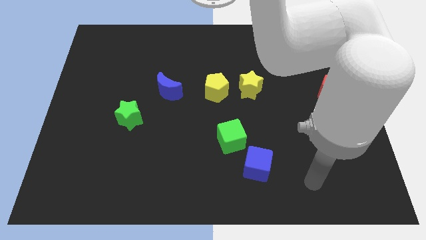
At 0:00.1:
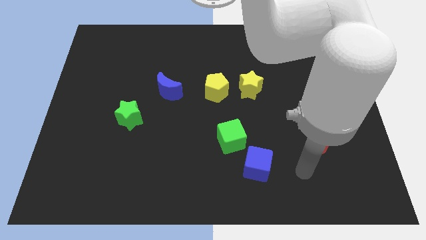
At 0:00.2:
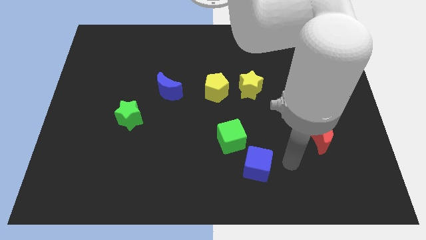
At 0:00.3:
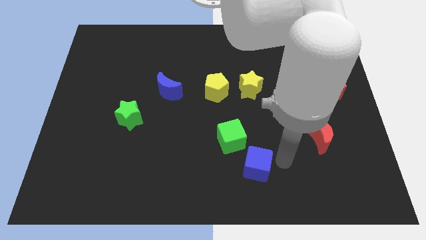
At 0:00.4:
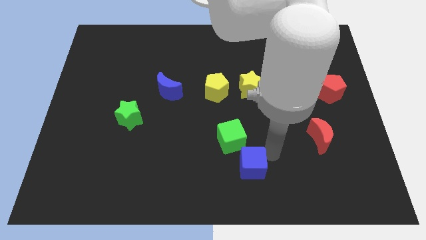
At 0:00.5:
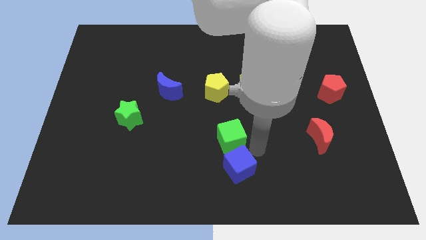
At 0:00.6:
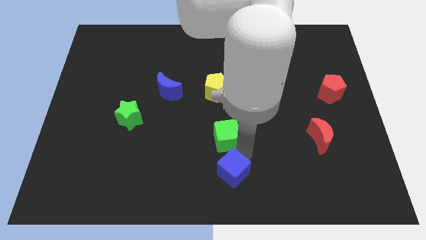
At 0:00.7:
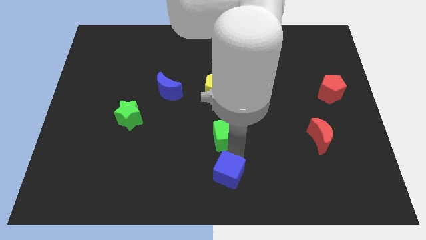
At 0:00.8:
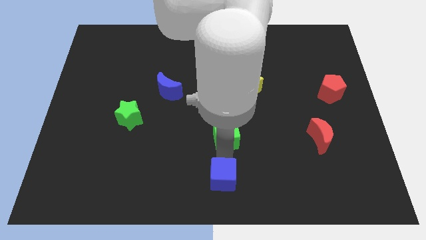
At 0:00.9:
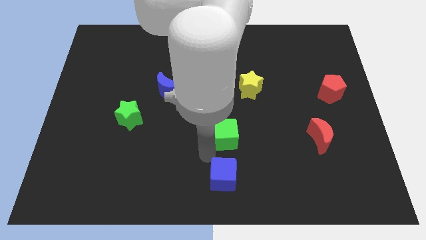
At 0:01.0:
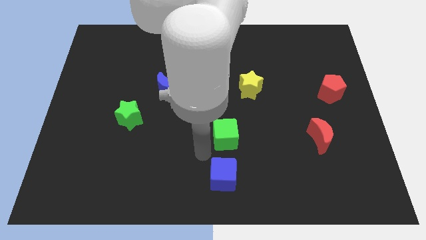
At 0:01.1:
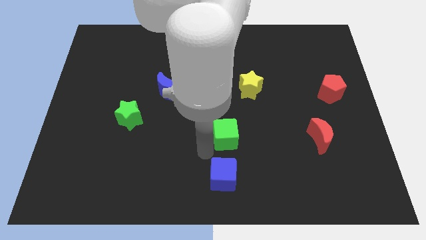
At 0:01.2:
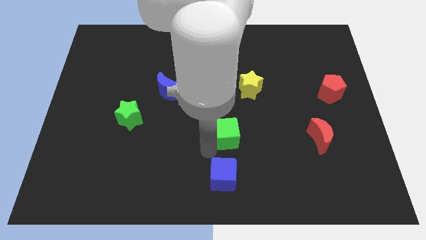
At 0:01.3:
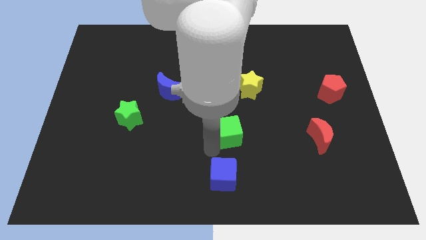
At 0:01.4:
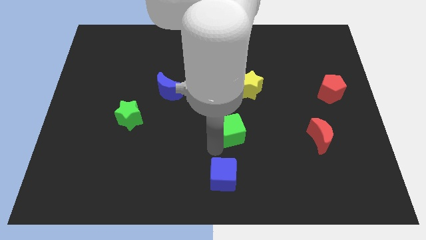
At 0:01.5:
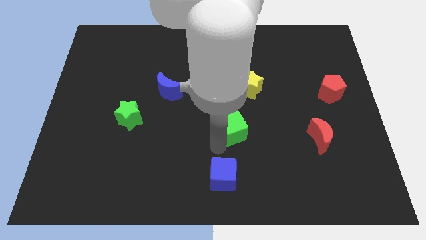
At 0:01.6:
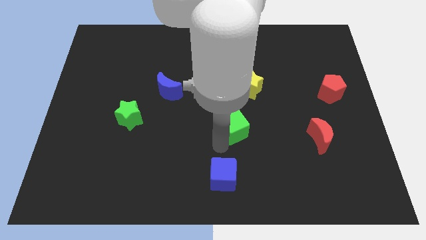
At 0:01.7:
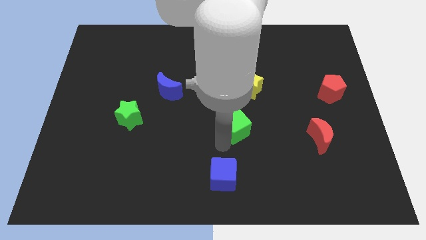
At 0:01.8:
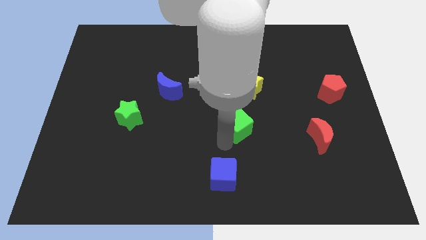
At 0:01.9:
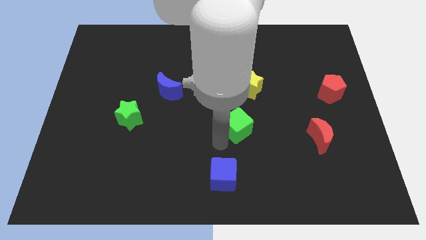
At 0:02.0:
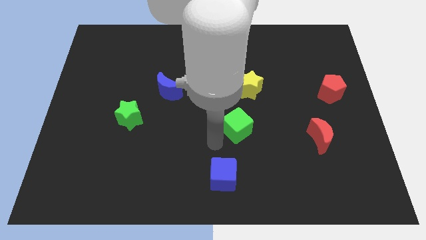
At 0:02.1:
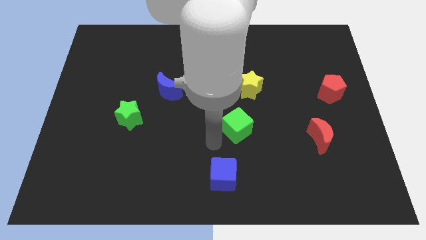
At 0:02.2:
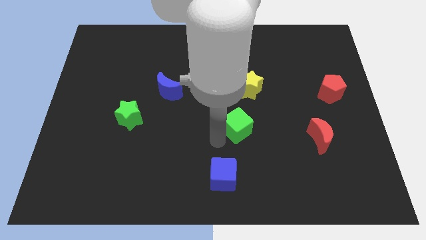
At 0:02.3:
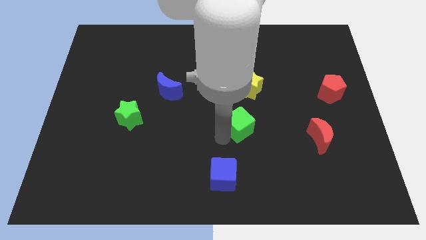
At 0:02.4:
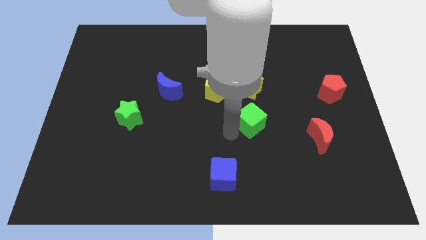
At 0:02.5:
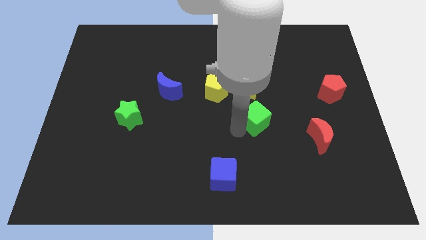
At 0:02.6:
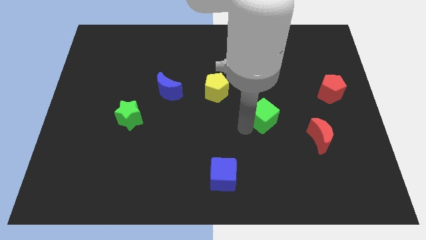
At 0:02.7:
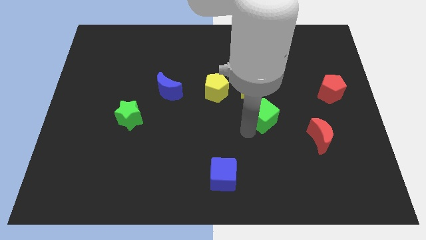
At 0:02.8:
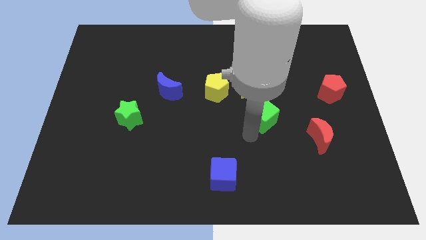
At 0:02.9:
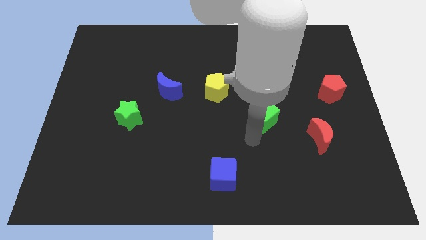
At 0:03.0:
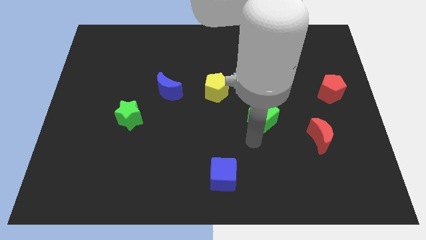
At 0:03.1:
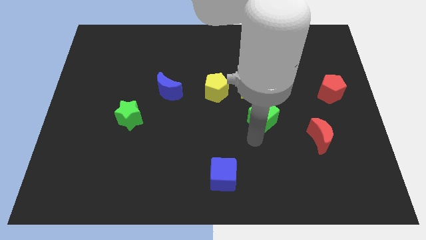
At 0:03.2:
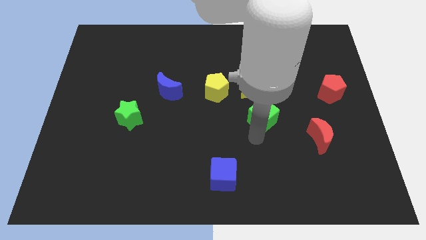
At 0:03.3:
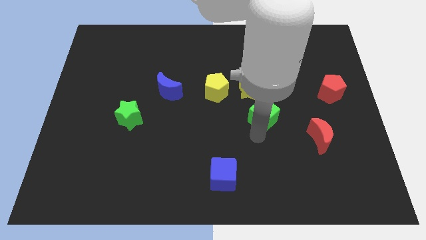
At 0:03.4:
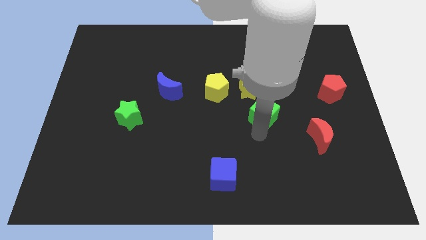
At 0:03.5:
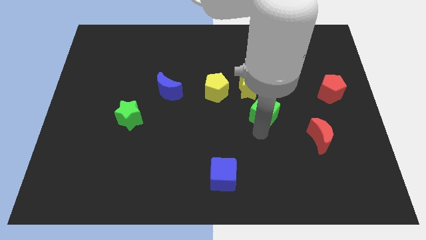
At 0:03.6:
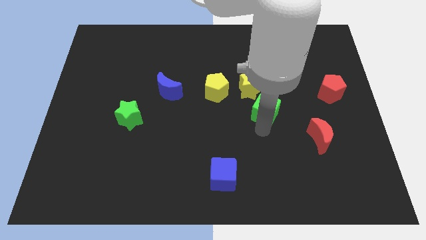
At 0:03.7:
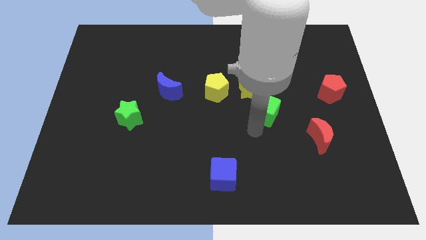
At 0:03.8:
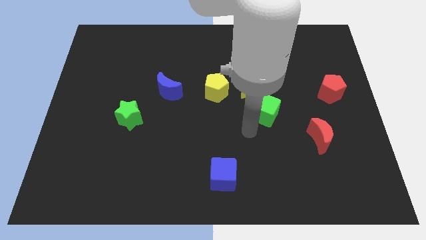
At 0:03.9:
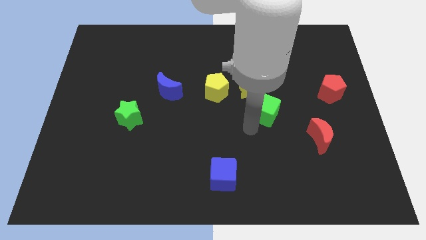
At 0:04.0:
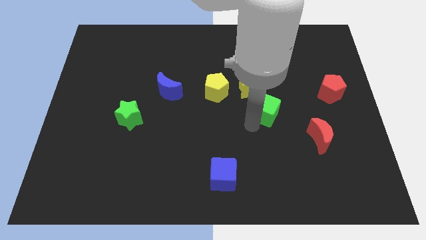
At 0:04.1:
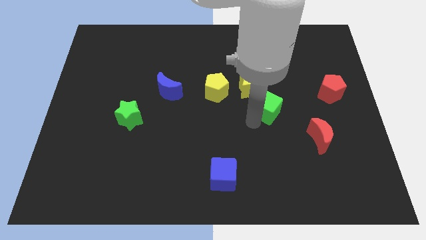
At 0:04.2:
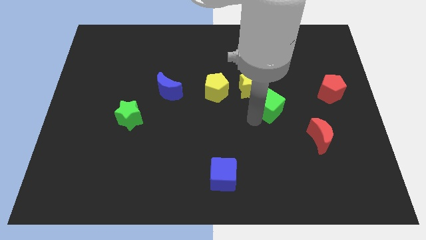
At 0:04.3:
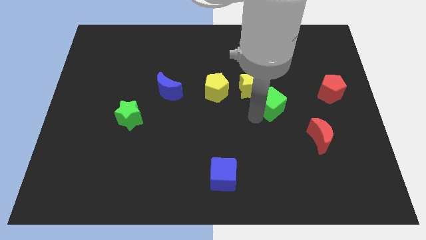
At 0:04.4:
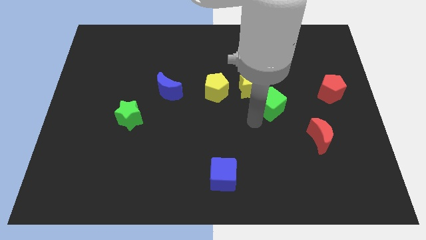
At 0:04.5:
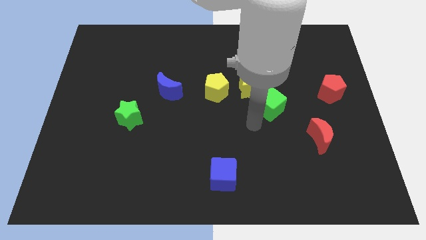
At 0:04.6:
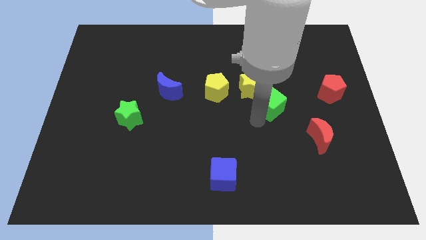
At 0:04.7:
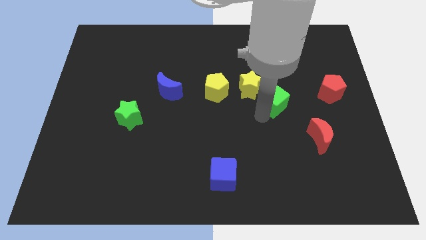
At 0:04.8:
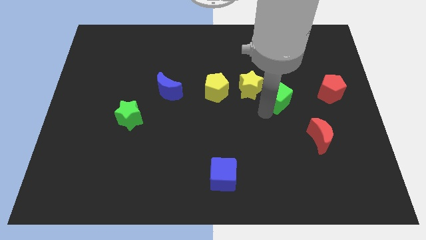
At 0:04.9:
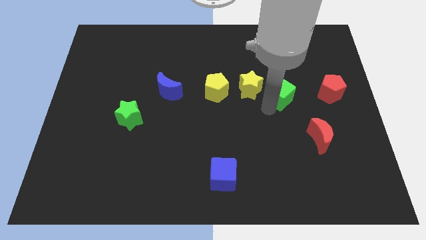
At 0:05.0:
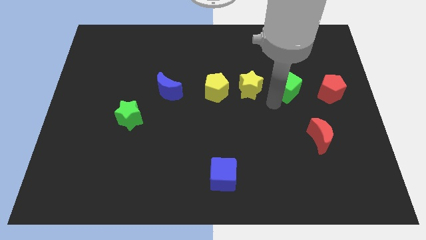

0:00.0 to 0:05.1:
move the green cube diagonally up and to the right

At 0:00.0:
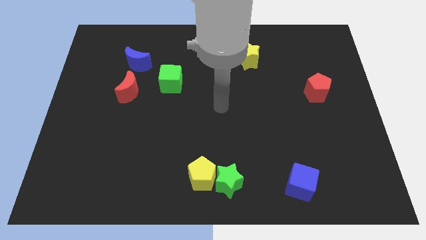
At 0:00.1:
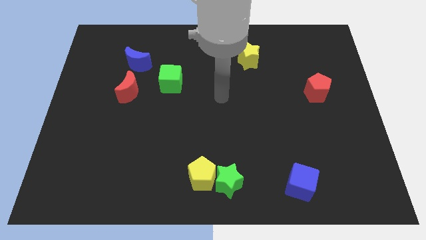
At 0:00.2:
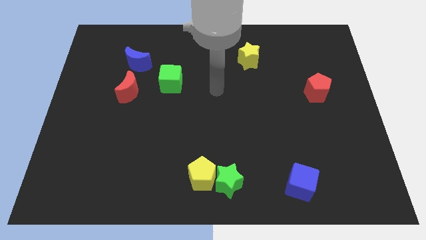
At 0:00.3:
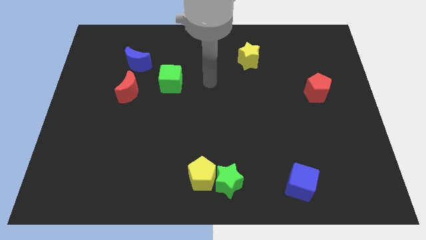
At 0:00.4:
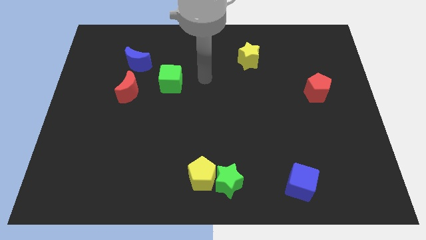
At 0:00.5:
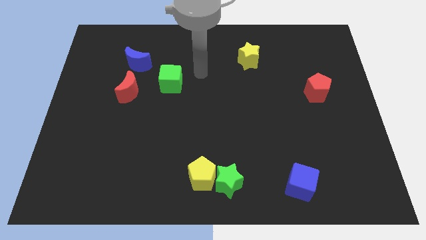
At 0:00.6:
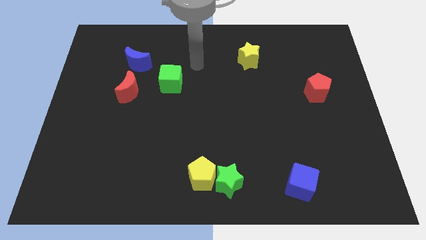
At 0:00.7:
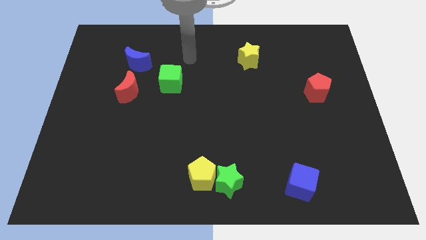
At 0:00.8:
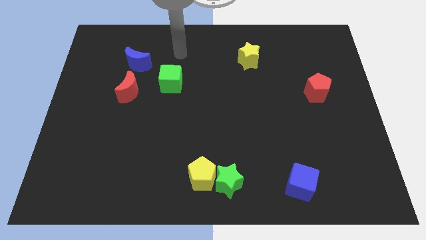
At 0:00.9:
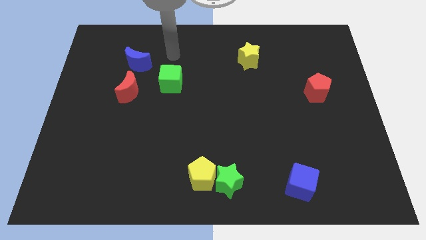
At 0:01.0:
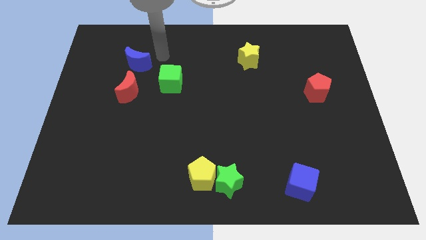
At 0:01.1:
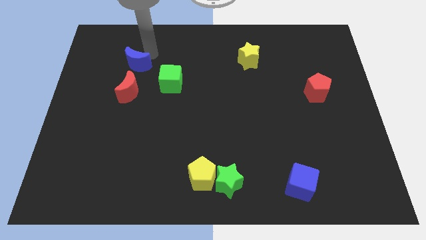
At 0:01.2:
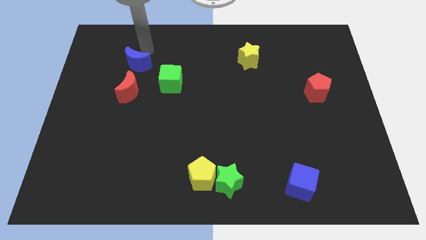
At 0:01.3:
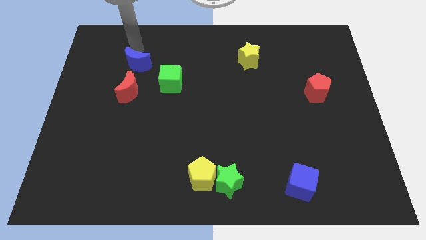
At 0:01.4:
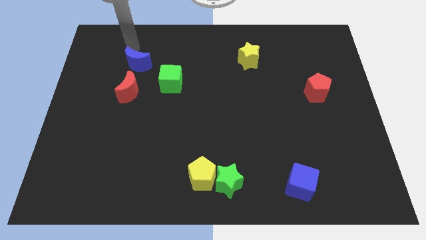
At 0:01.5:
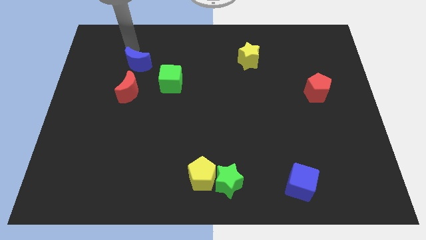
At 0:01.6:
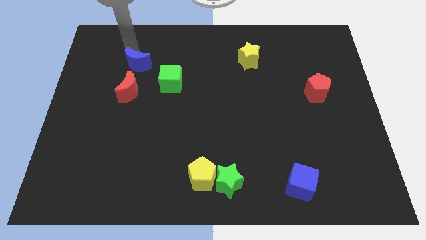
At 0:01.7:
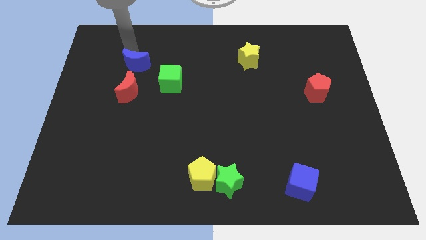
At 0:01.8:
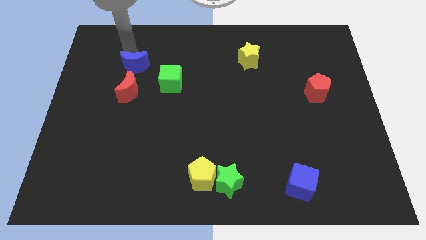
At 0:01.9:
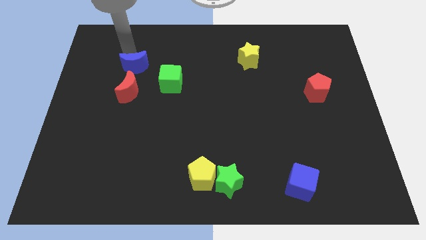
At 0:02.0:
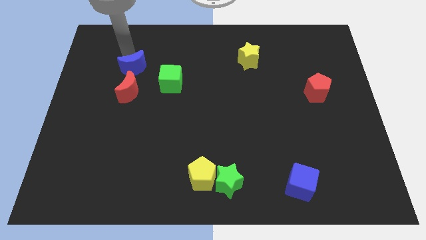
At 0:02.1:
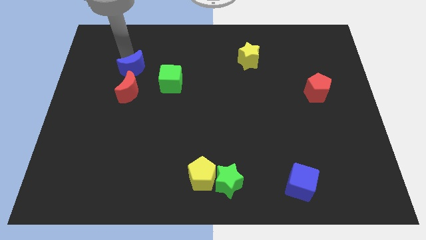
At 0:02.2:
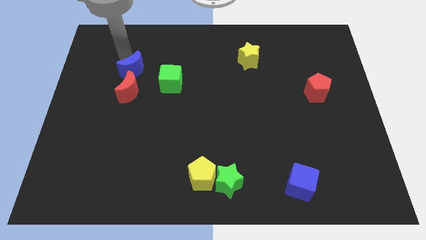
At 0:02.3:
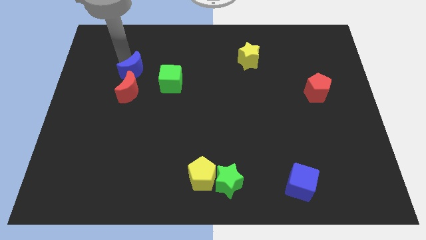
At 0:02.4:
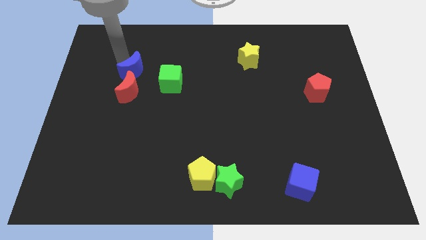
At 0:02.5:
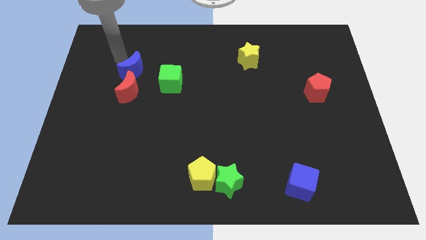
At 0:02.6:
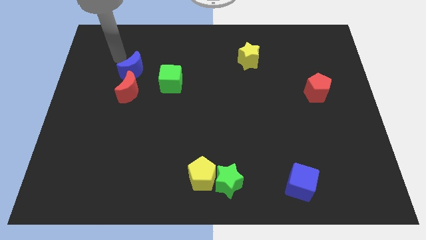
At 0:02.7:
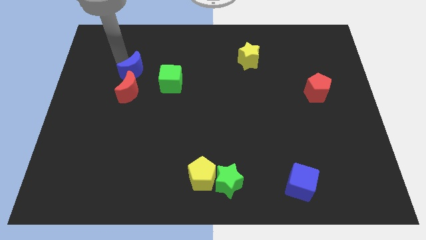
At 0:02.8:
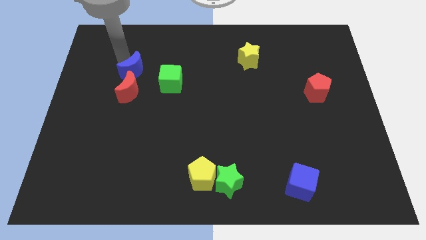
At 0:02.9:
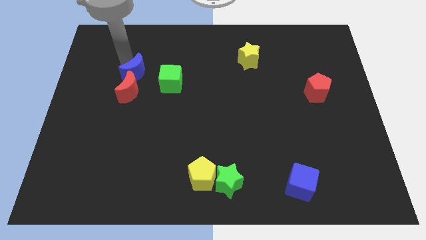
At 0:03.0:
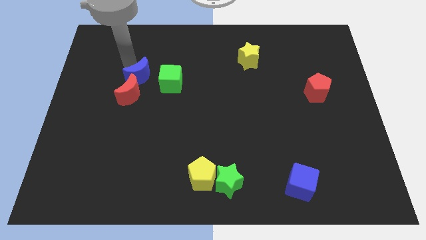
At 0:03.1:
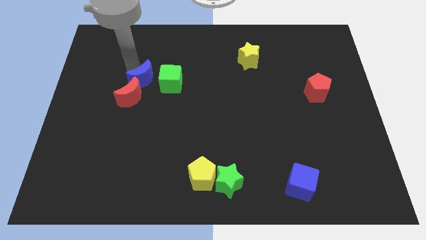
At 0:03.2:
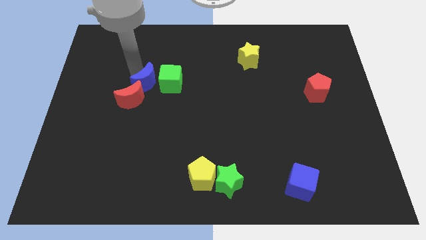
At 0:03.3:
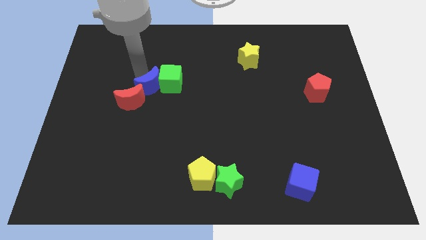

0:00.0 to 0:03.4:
slide the blue moon downwards and to the right diagonally somewhat
